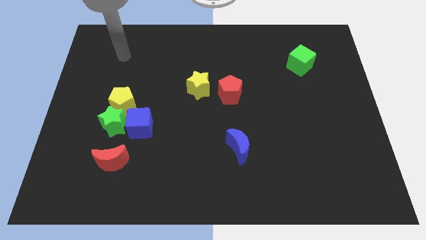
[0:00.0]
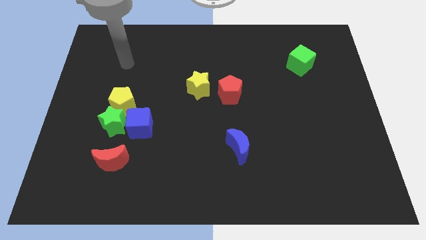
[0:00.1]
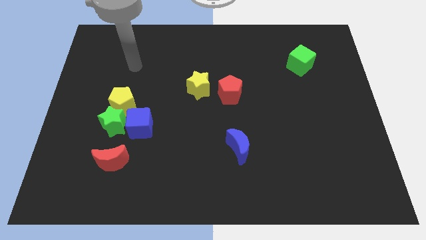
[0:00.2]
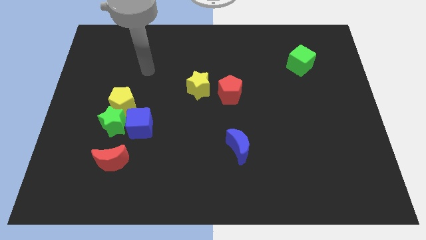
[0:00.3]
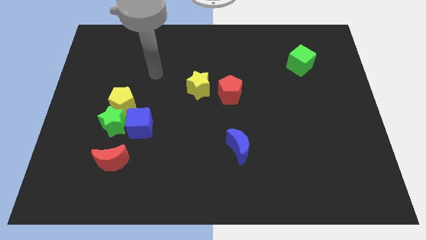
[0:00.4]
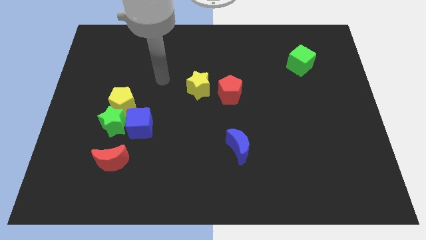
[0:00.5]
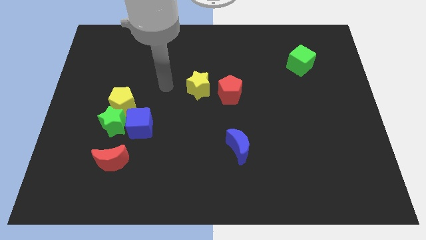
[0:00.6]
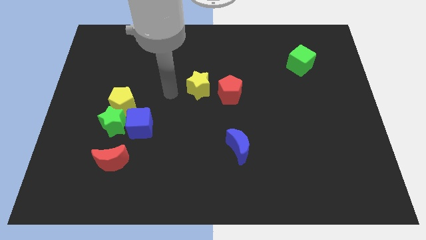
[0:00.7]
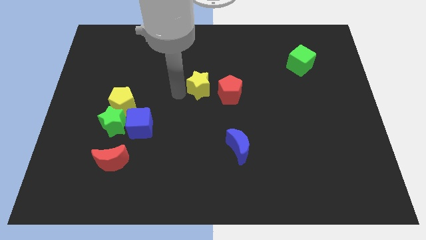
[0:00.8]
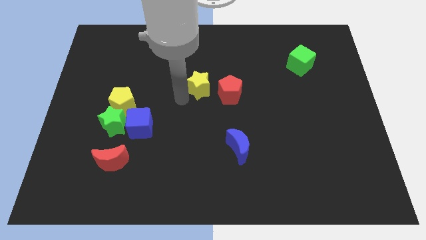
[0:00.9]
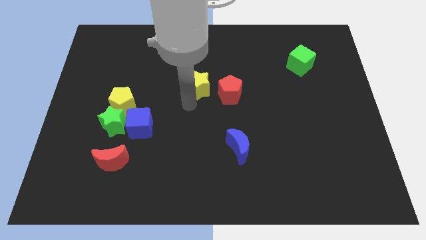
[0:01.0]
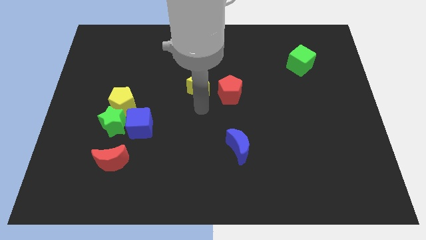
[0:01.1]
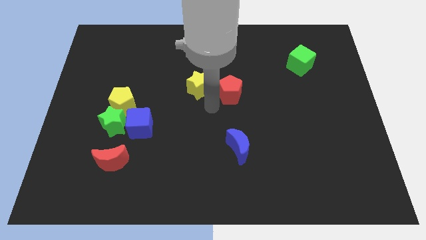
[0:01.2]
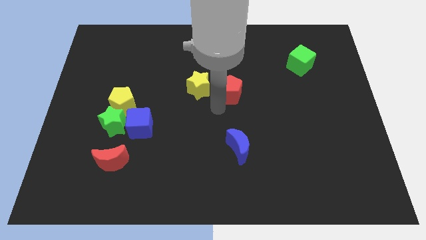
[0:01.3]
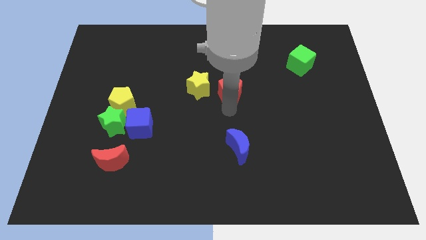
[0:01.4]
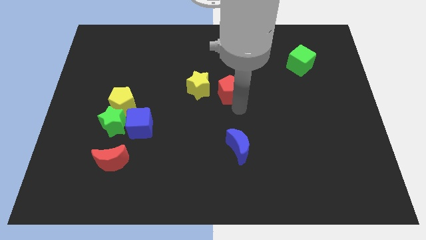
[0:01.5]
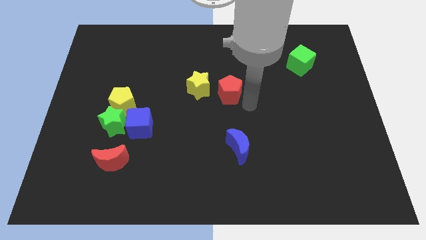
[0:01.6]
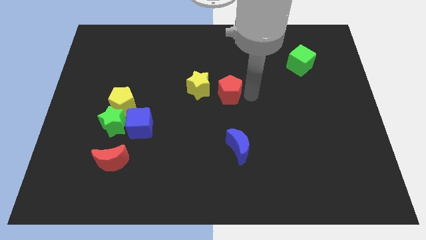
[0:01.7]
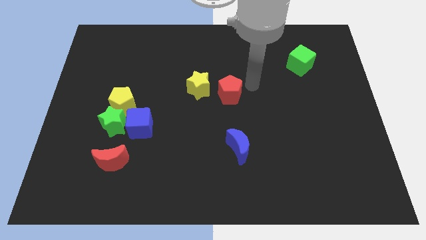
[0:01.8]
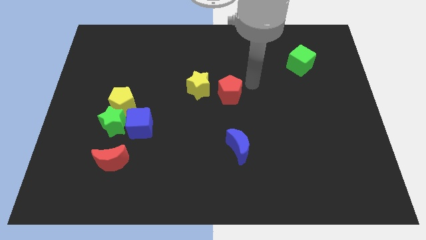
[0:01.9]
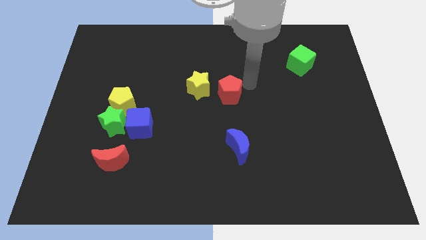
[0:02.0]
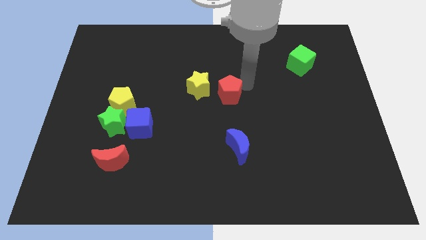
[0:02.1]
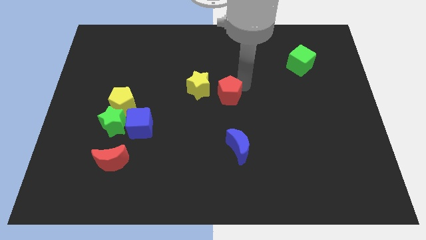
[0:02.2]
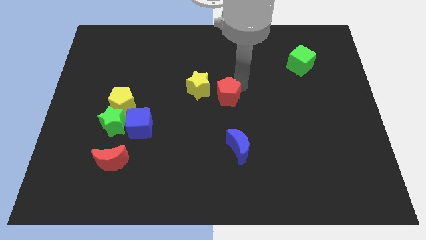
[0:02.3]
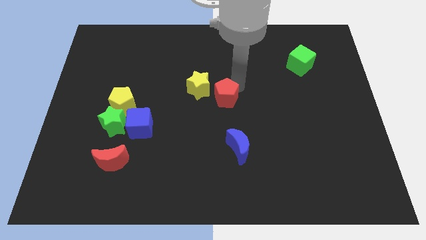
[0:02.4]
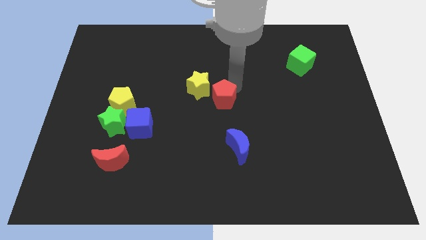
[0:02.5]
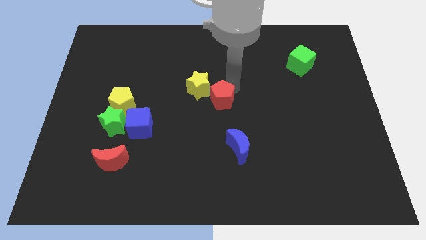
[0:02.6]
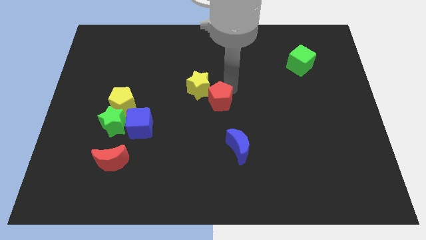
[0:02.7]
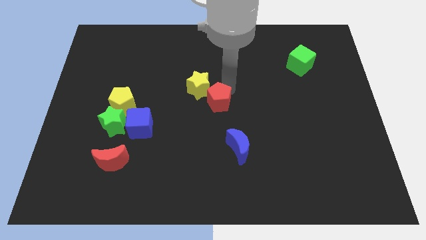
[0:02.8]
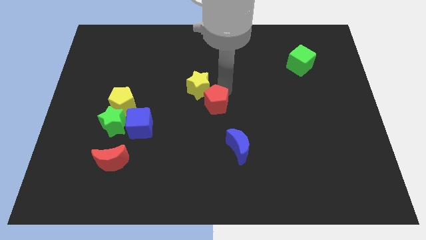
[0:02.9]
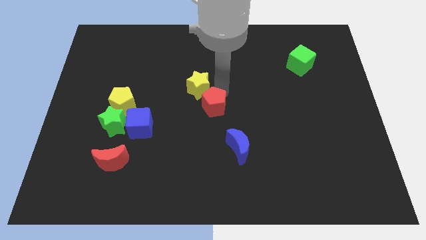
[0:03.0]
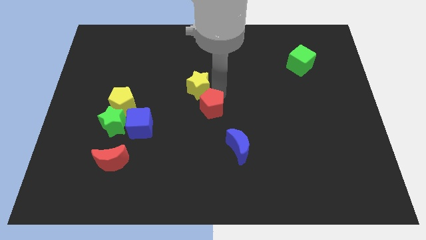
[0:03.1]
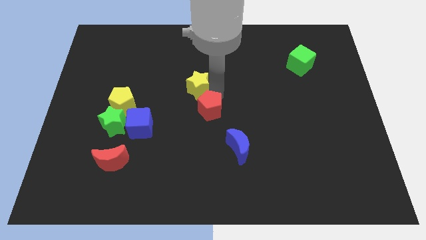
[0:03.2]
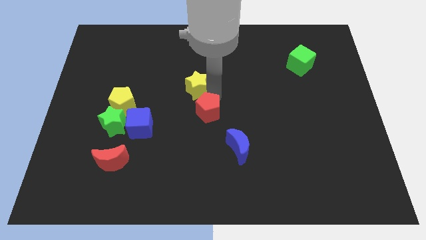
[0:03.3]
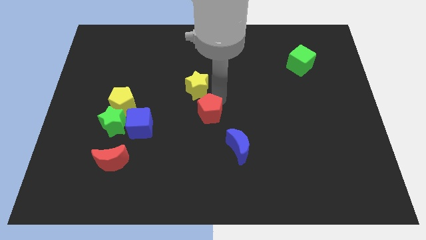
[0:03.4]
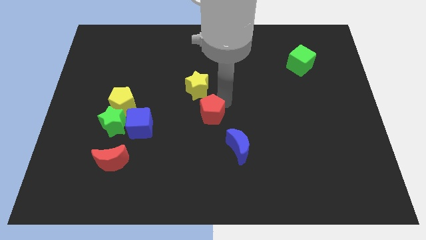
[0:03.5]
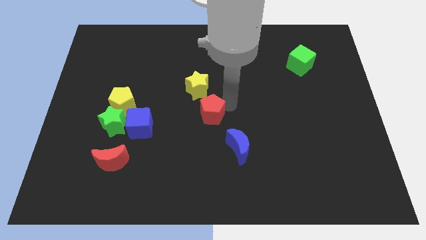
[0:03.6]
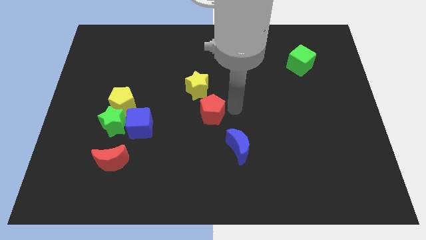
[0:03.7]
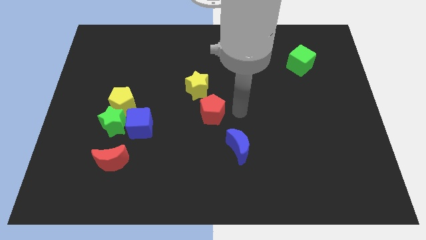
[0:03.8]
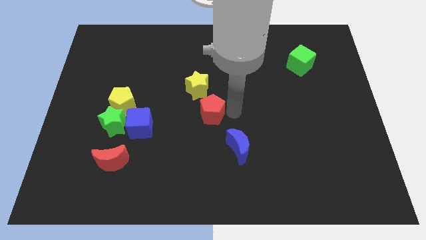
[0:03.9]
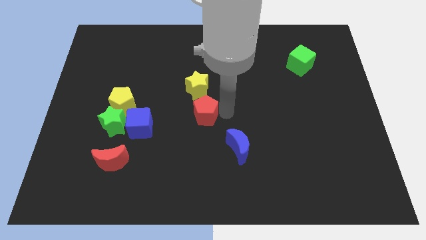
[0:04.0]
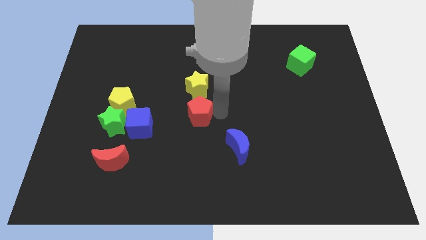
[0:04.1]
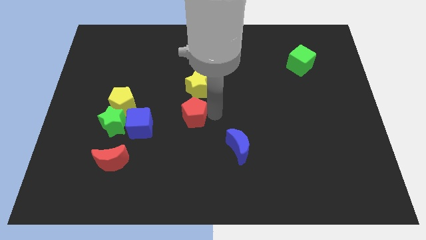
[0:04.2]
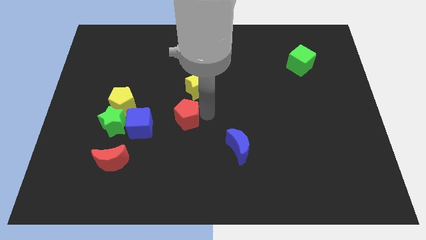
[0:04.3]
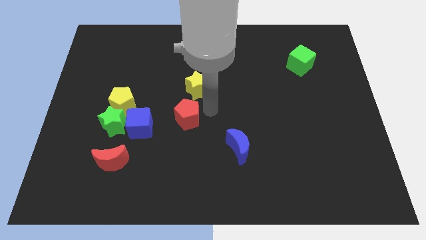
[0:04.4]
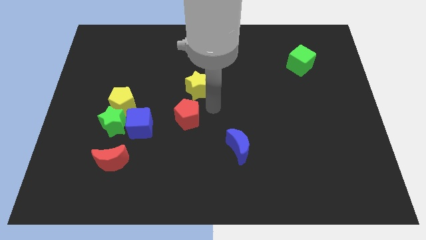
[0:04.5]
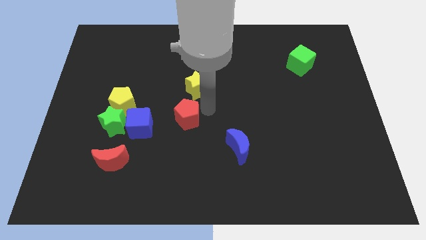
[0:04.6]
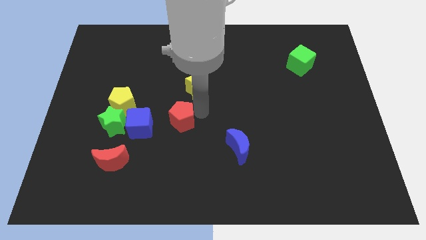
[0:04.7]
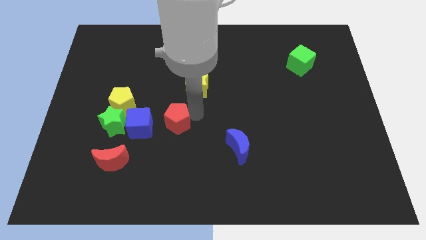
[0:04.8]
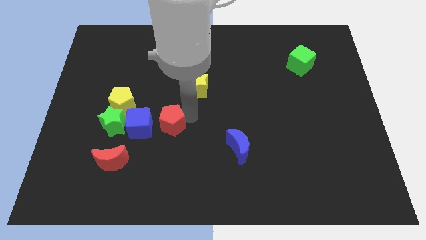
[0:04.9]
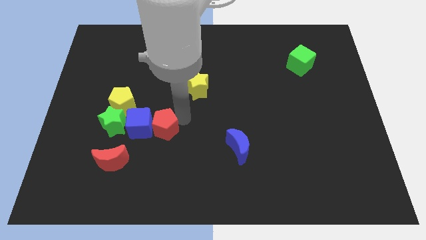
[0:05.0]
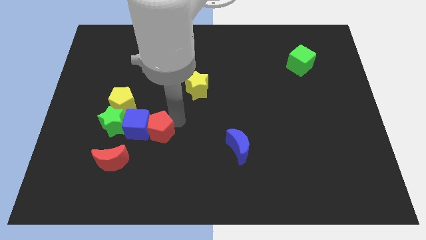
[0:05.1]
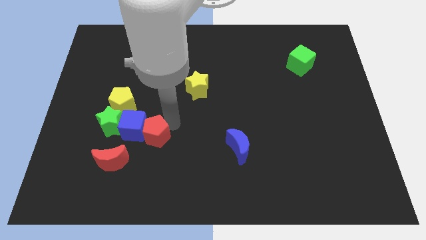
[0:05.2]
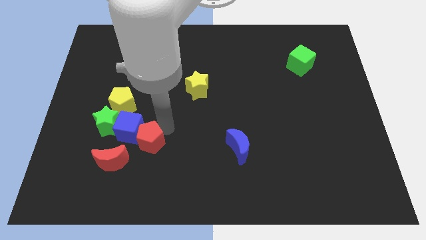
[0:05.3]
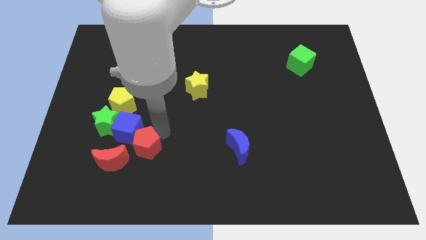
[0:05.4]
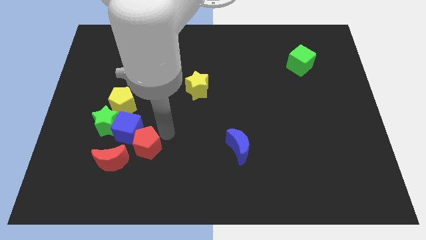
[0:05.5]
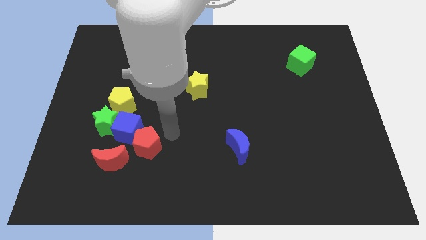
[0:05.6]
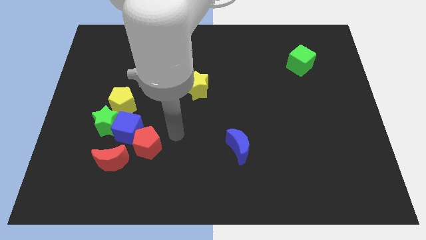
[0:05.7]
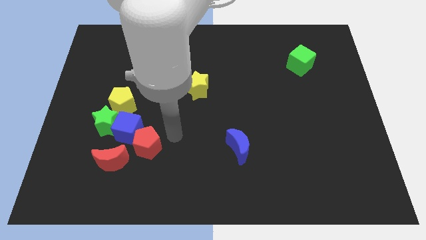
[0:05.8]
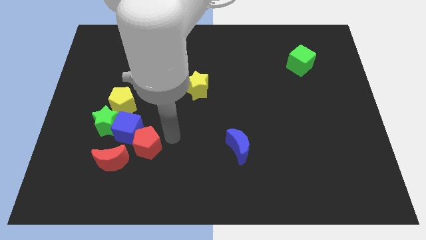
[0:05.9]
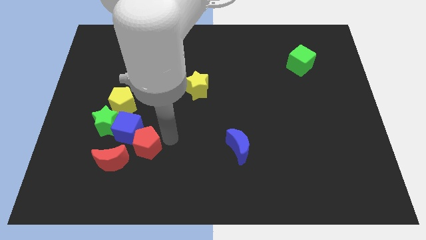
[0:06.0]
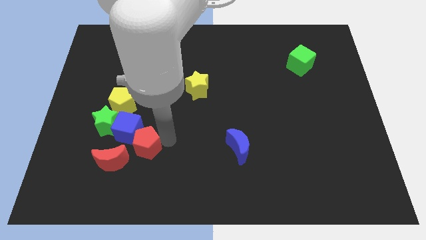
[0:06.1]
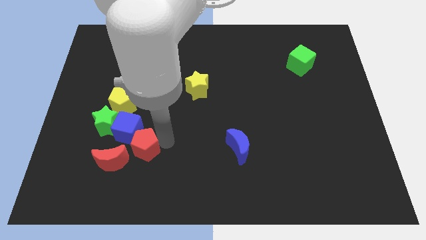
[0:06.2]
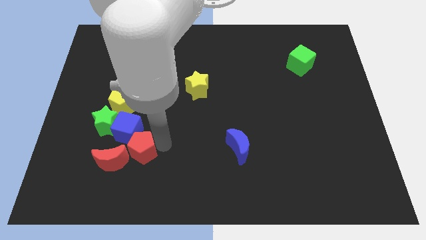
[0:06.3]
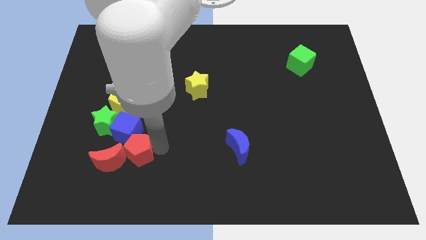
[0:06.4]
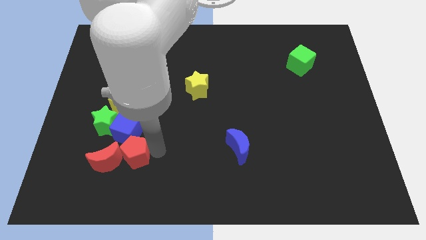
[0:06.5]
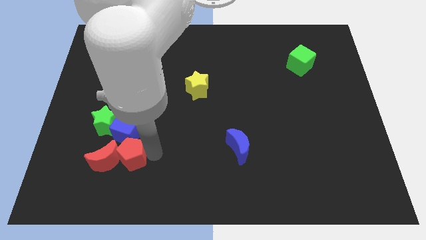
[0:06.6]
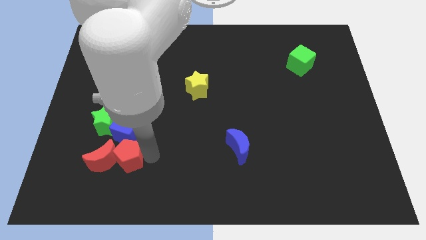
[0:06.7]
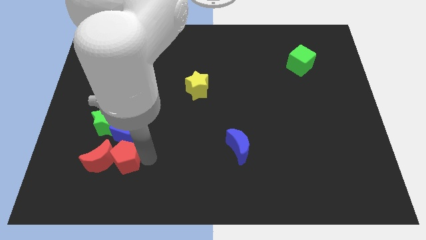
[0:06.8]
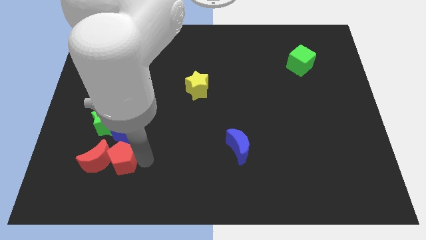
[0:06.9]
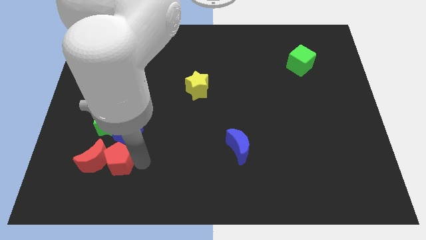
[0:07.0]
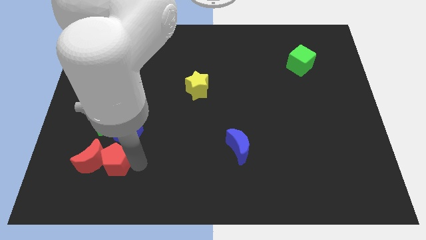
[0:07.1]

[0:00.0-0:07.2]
push the red pentagon diagonally down and to the left of the blue cube
